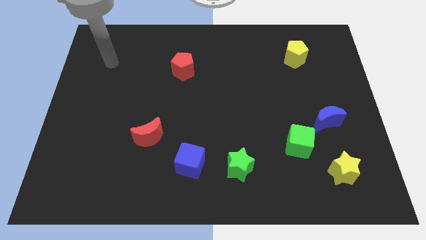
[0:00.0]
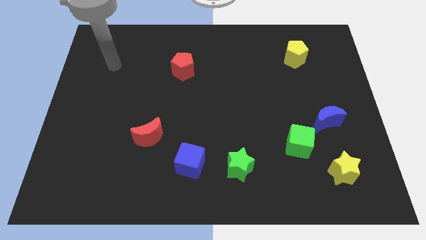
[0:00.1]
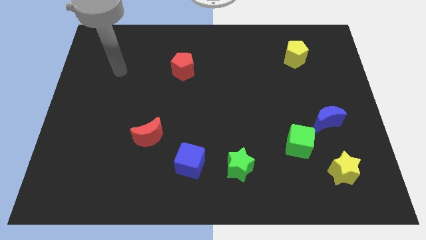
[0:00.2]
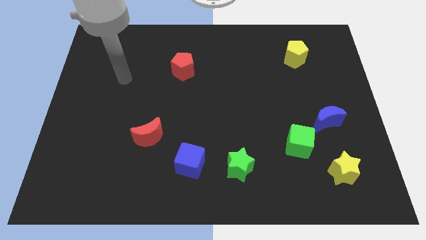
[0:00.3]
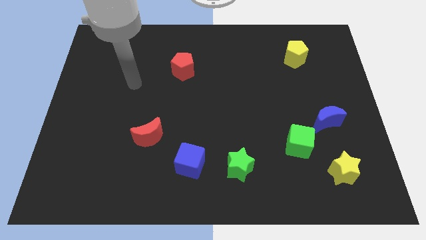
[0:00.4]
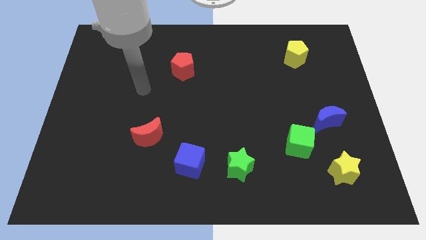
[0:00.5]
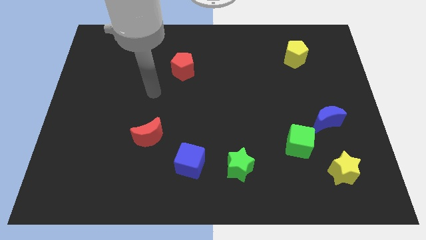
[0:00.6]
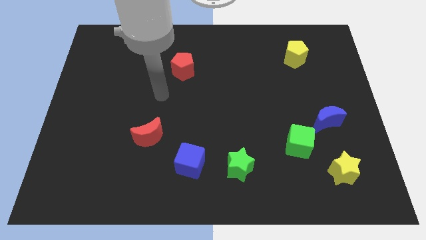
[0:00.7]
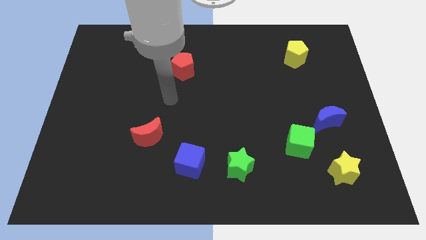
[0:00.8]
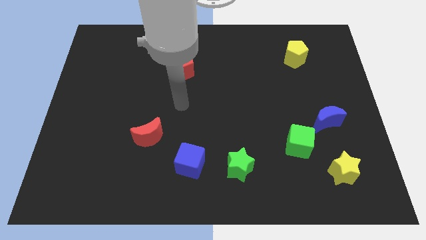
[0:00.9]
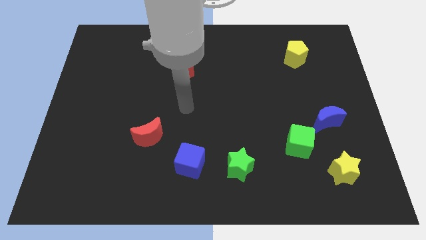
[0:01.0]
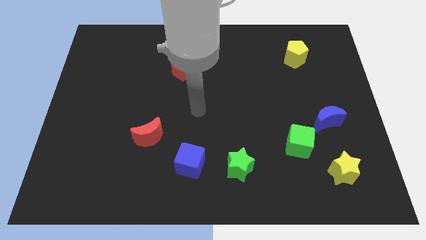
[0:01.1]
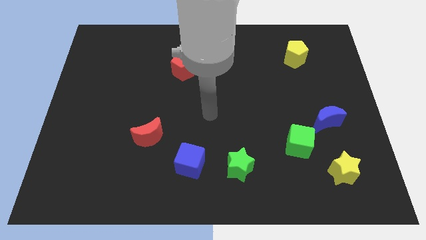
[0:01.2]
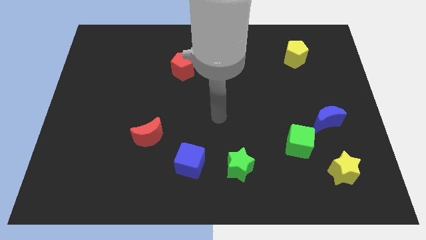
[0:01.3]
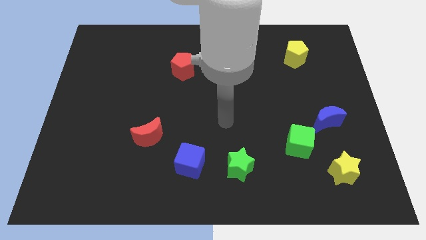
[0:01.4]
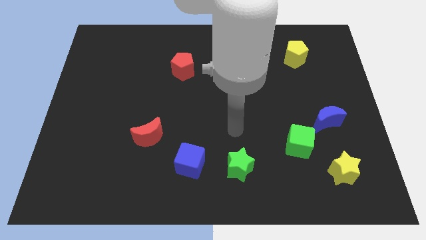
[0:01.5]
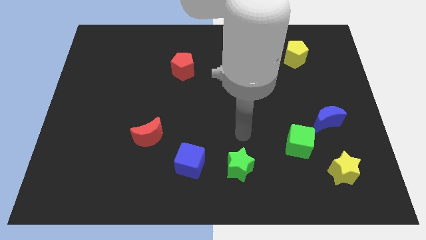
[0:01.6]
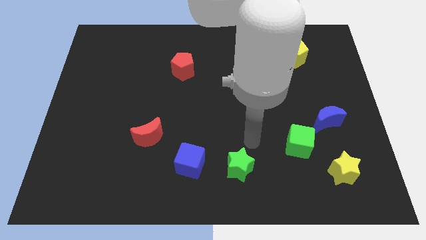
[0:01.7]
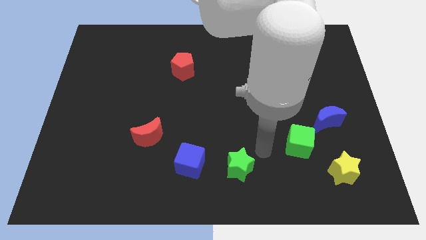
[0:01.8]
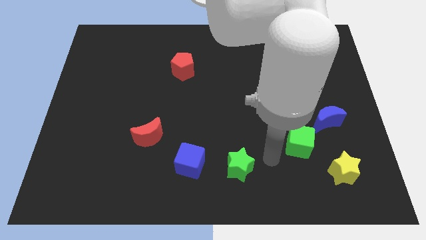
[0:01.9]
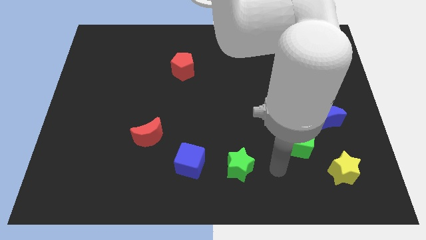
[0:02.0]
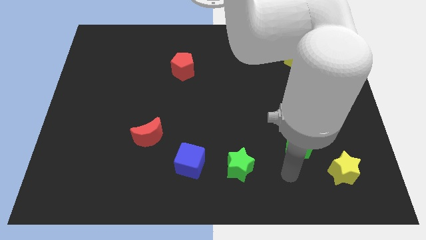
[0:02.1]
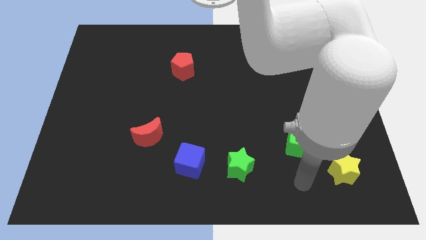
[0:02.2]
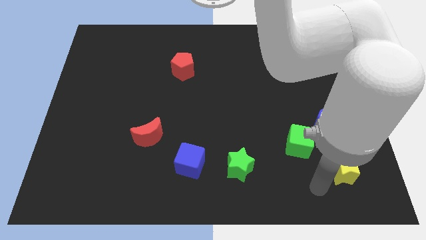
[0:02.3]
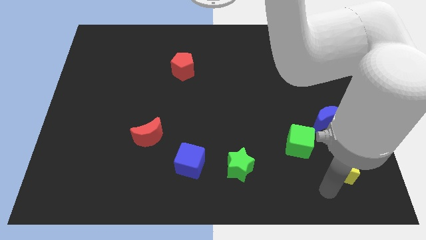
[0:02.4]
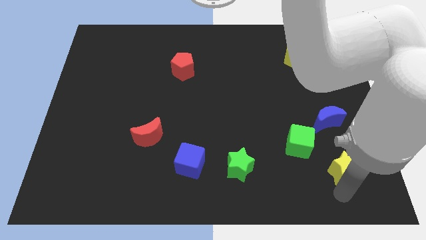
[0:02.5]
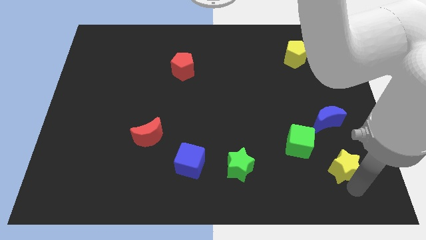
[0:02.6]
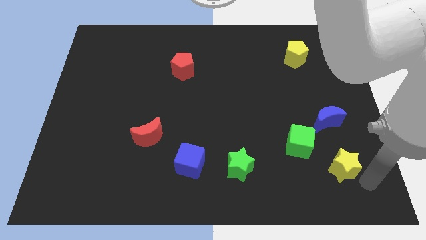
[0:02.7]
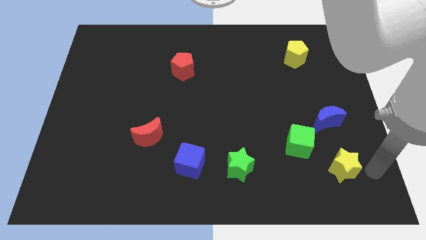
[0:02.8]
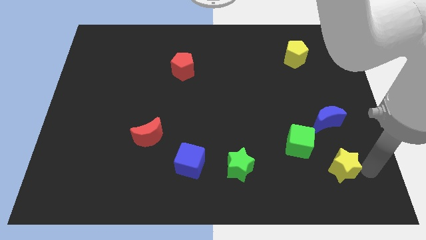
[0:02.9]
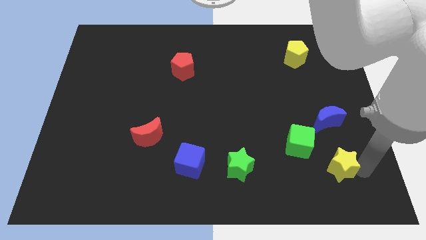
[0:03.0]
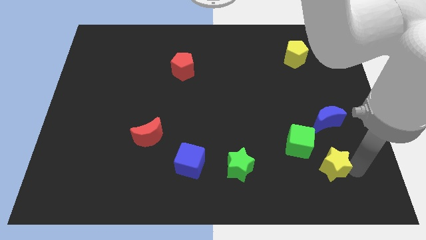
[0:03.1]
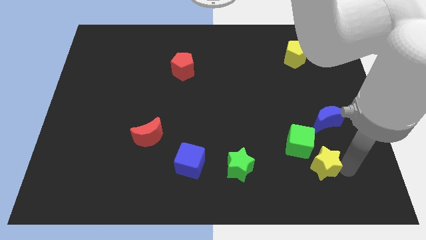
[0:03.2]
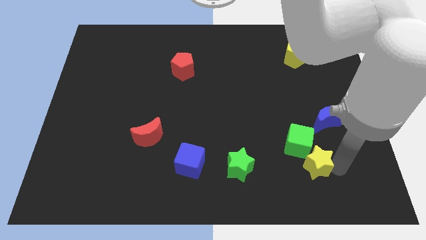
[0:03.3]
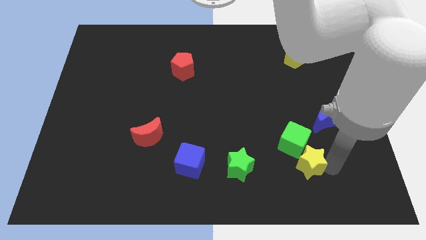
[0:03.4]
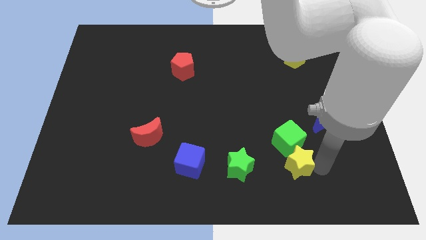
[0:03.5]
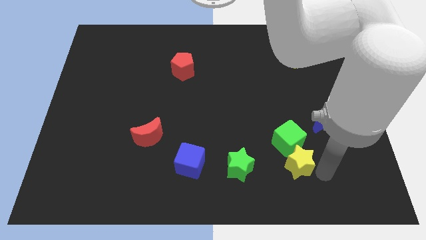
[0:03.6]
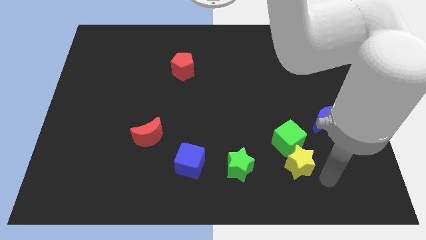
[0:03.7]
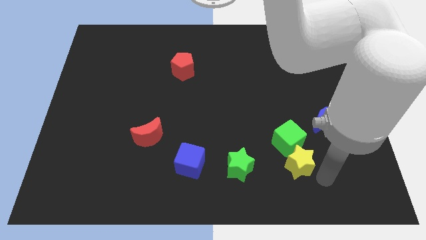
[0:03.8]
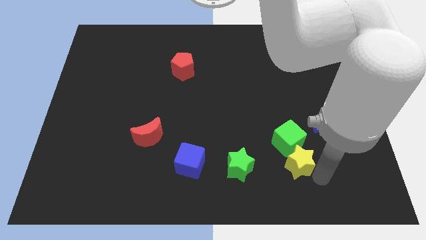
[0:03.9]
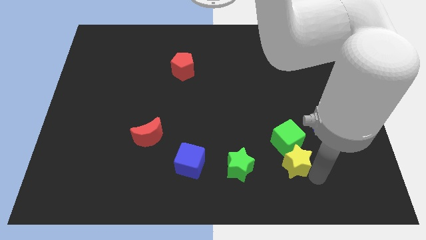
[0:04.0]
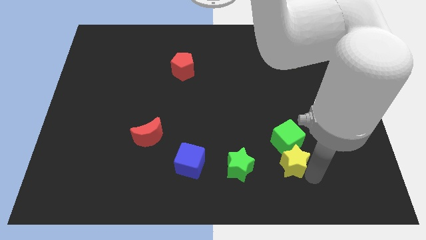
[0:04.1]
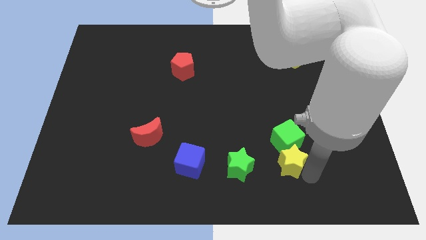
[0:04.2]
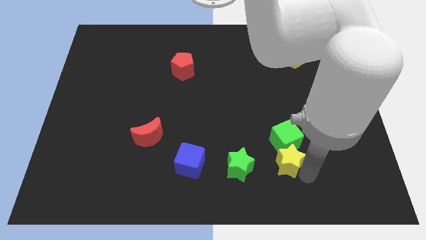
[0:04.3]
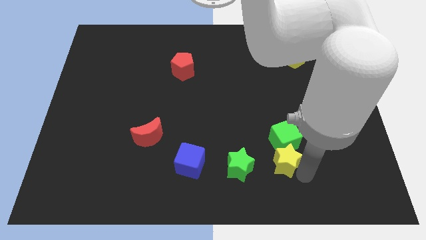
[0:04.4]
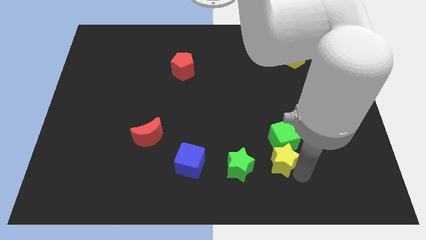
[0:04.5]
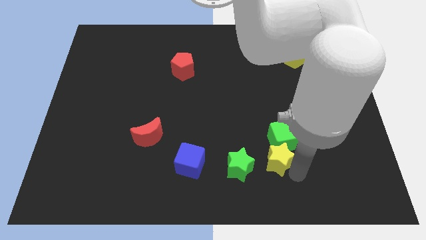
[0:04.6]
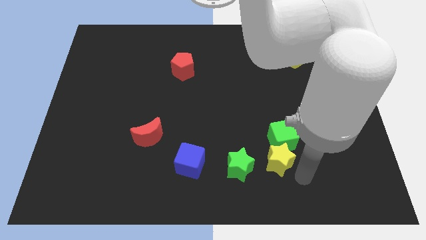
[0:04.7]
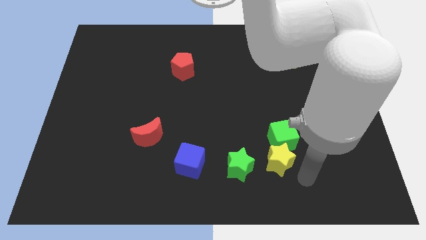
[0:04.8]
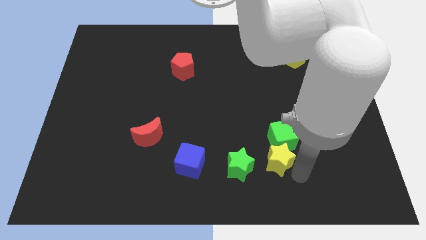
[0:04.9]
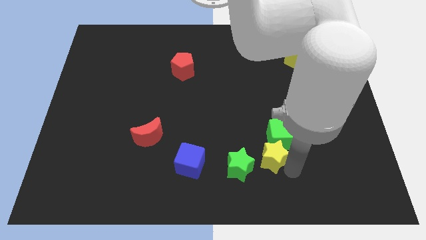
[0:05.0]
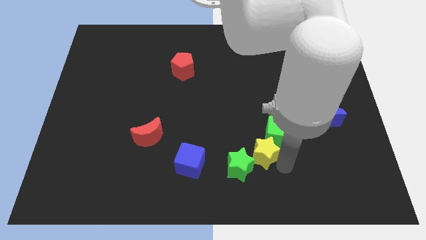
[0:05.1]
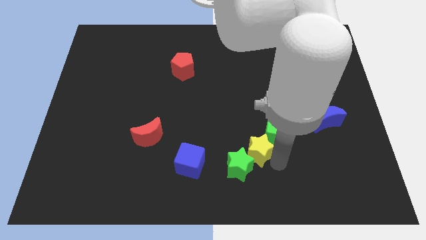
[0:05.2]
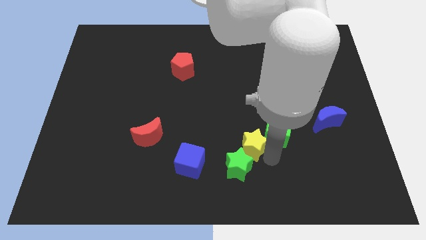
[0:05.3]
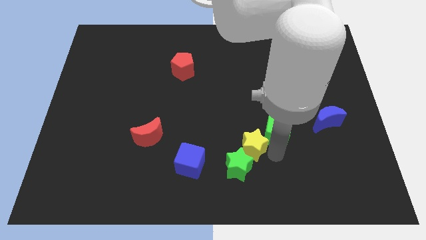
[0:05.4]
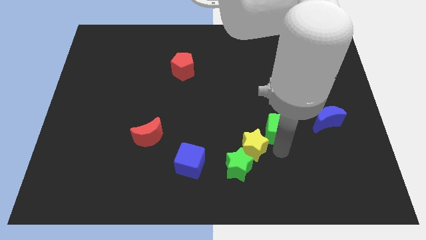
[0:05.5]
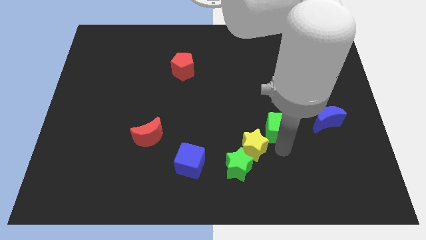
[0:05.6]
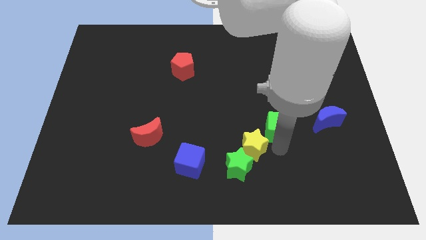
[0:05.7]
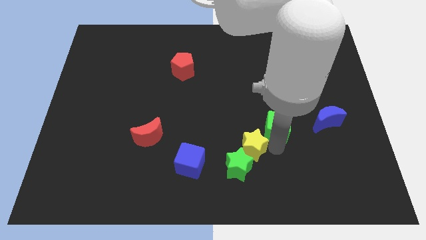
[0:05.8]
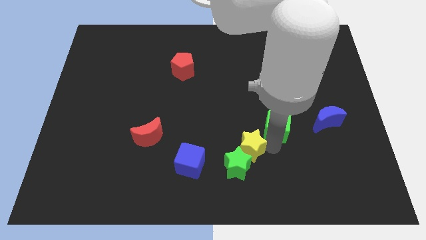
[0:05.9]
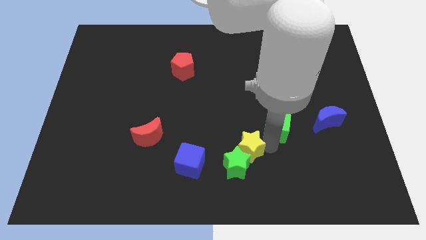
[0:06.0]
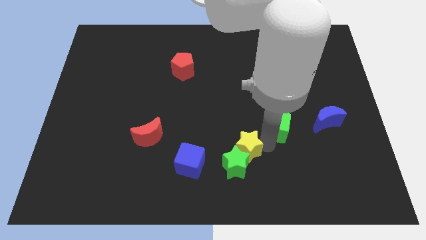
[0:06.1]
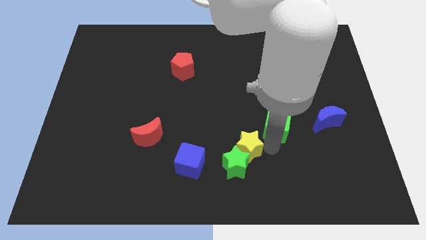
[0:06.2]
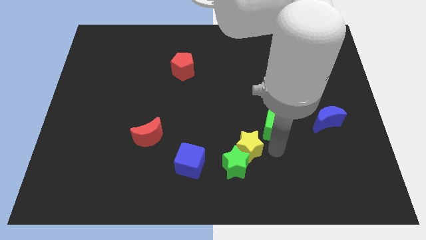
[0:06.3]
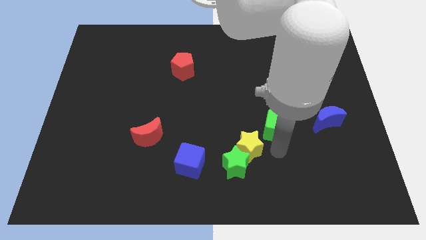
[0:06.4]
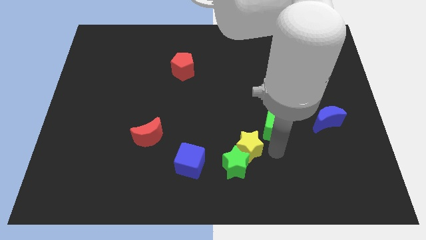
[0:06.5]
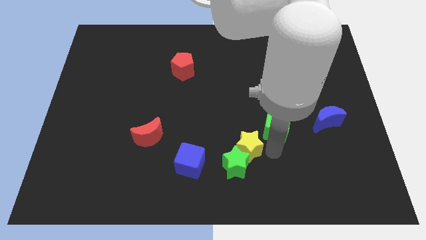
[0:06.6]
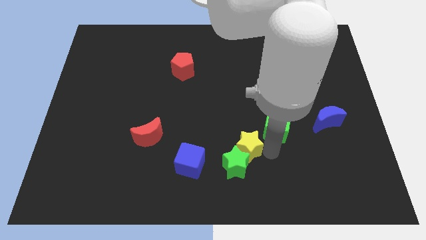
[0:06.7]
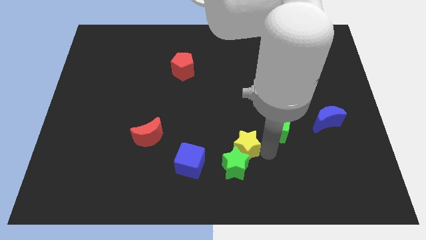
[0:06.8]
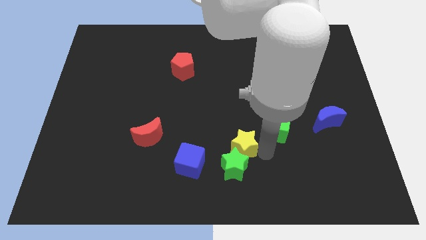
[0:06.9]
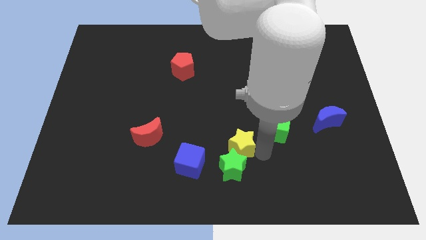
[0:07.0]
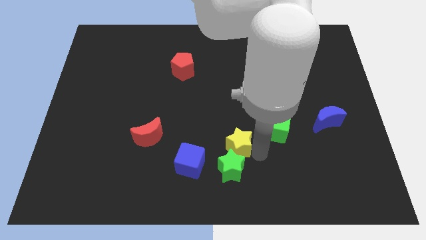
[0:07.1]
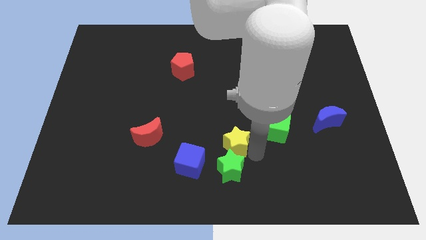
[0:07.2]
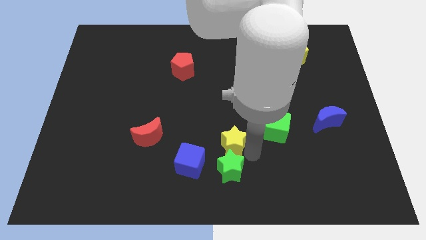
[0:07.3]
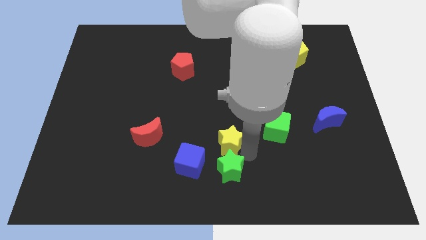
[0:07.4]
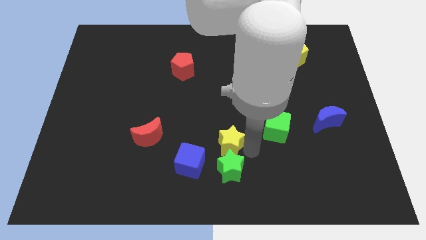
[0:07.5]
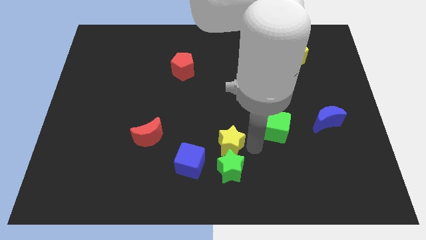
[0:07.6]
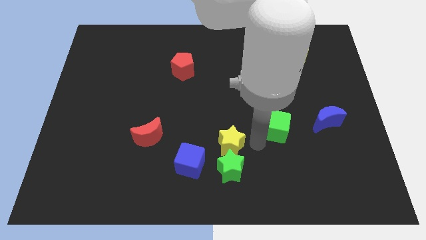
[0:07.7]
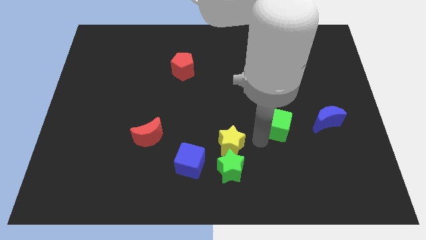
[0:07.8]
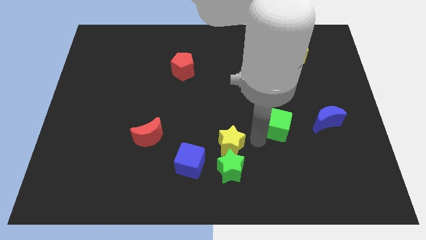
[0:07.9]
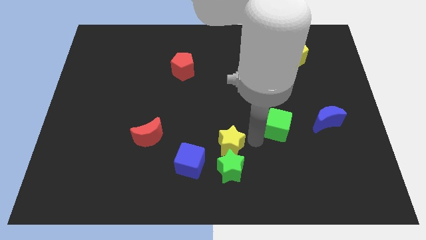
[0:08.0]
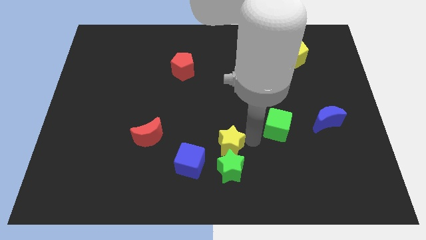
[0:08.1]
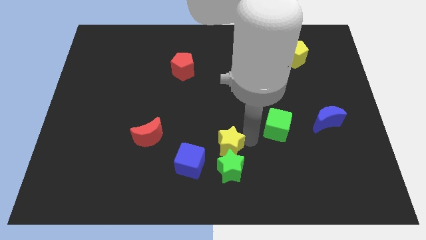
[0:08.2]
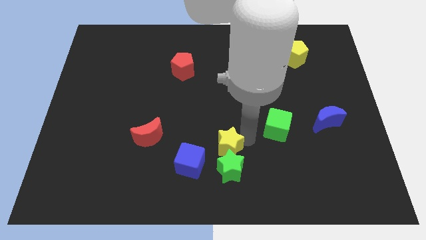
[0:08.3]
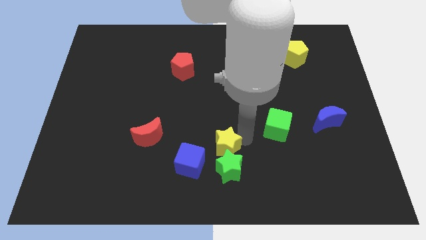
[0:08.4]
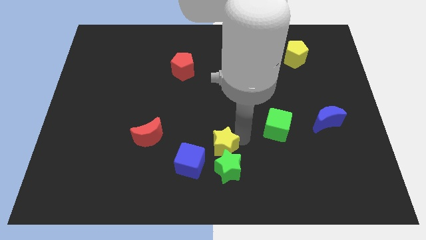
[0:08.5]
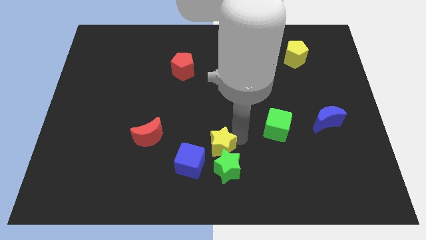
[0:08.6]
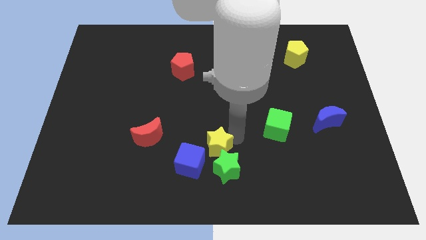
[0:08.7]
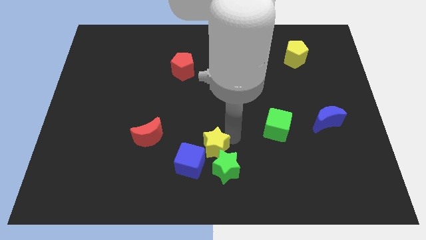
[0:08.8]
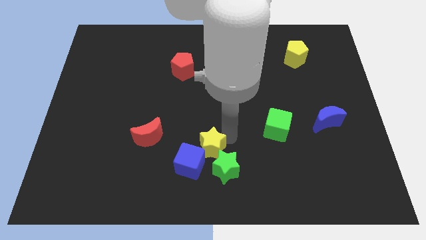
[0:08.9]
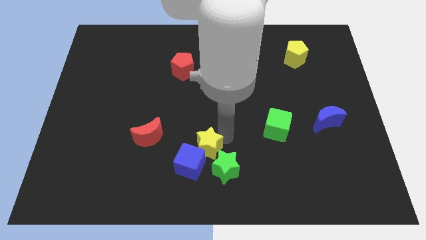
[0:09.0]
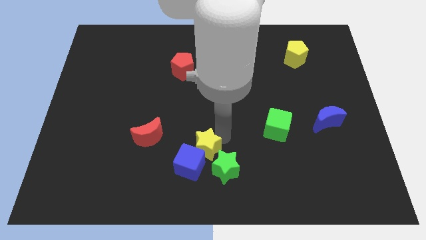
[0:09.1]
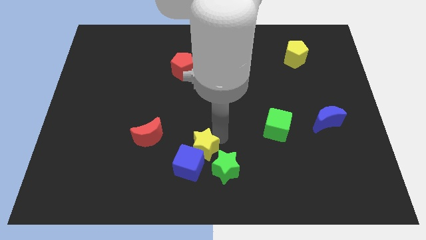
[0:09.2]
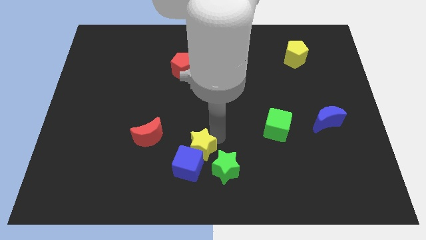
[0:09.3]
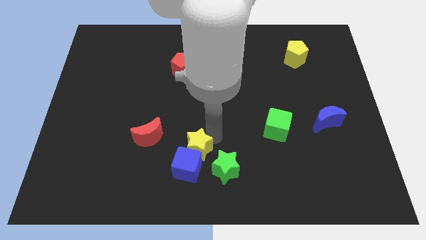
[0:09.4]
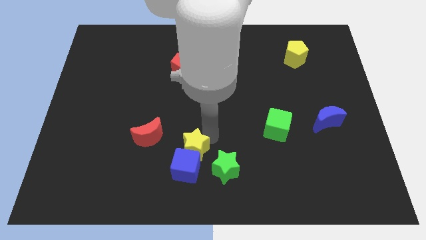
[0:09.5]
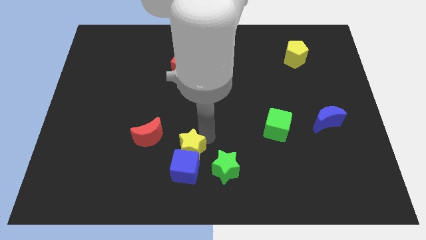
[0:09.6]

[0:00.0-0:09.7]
put the yellow star diagonally down and to the right of the red moon
